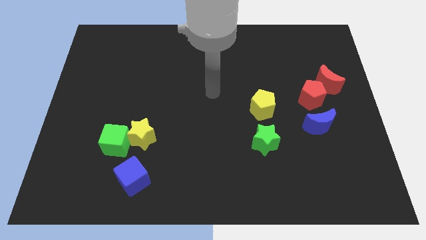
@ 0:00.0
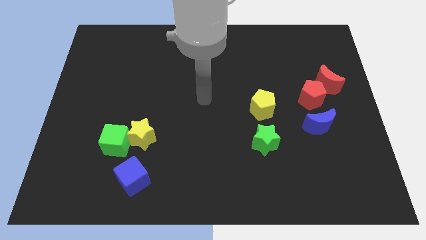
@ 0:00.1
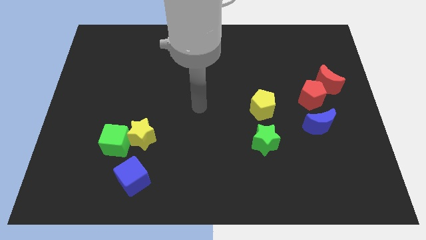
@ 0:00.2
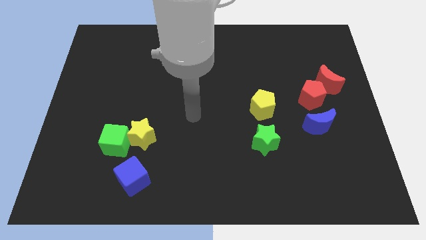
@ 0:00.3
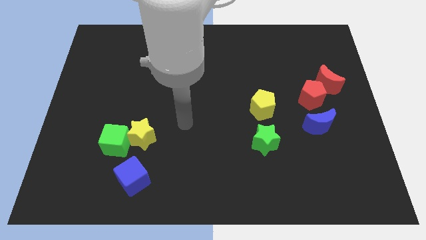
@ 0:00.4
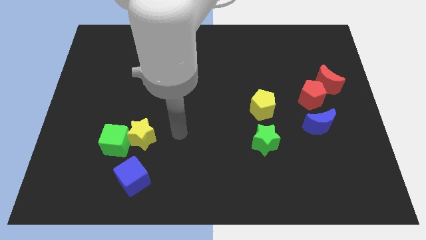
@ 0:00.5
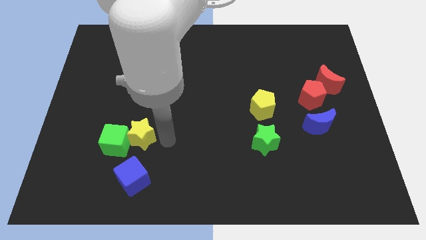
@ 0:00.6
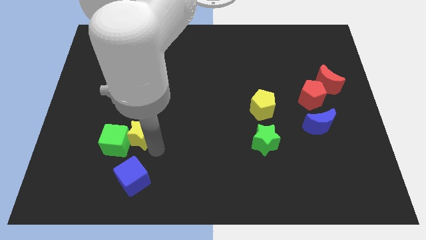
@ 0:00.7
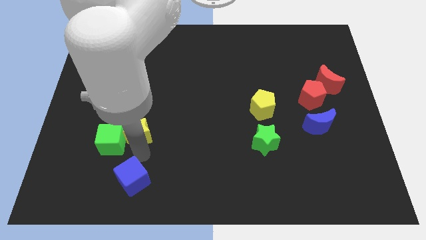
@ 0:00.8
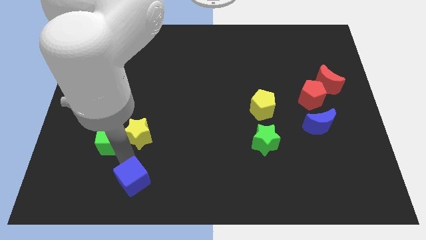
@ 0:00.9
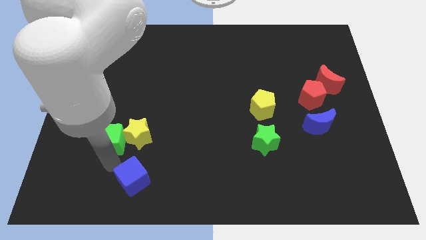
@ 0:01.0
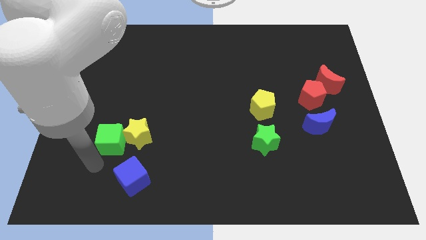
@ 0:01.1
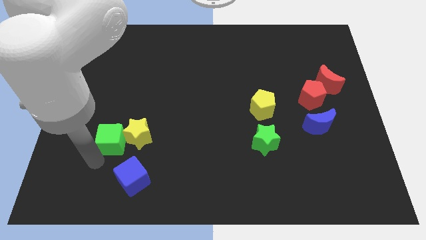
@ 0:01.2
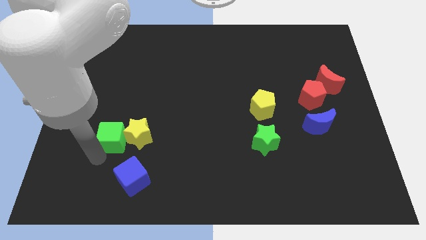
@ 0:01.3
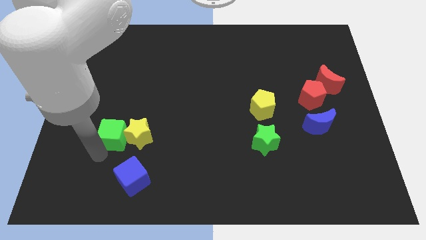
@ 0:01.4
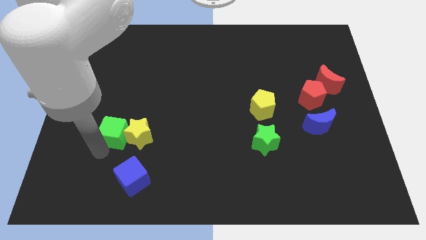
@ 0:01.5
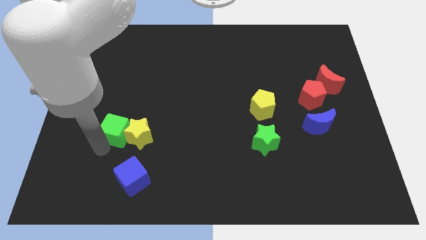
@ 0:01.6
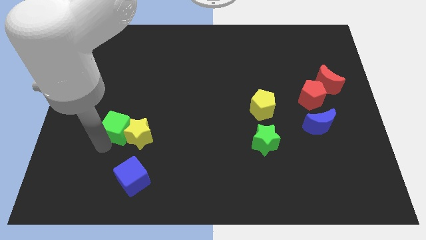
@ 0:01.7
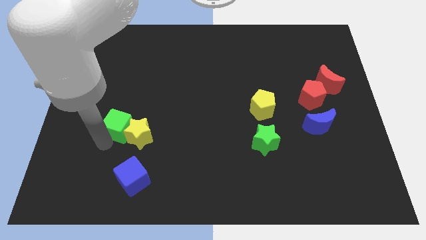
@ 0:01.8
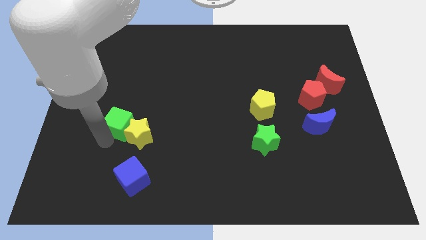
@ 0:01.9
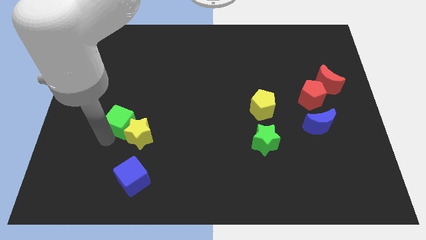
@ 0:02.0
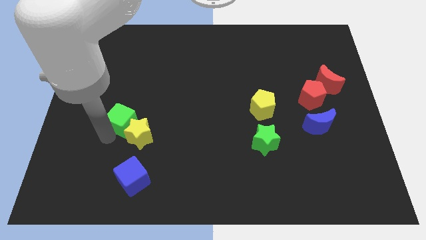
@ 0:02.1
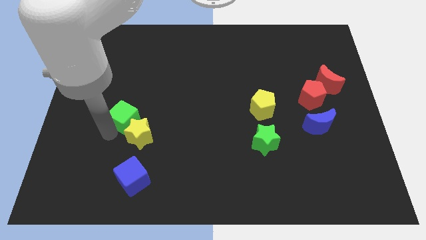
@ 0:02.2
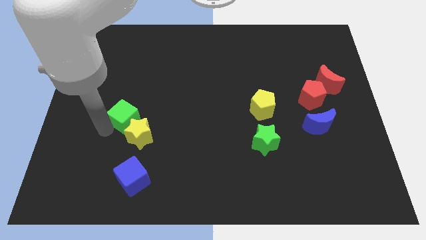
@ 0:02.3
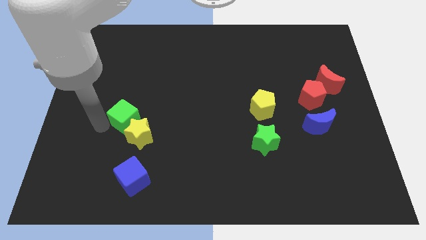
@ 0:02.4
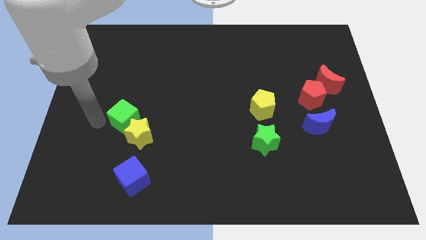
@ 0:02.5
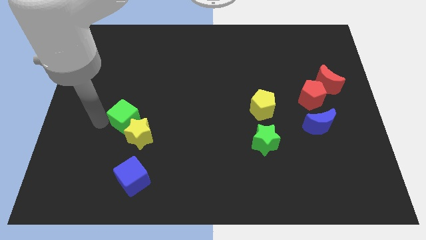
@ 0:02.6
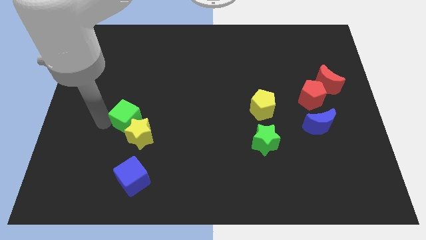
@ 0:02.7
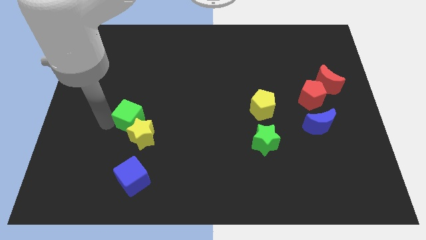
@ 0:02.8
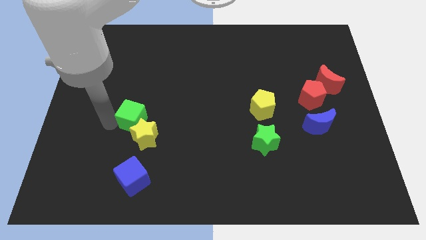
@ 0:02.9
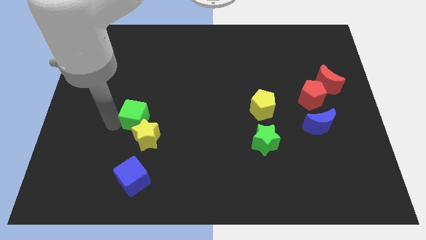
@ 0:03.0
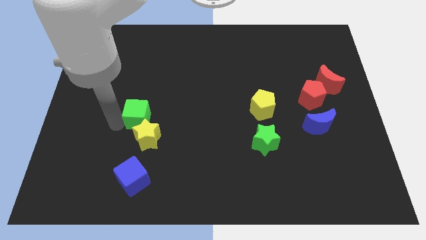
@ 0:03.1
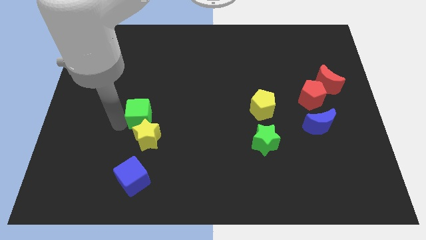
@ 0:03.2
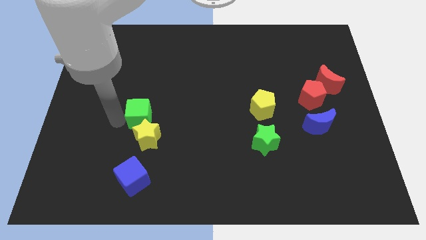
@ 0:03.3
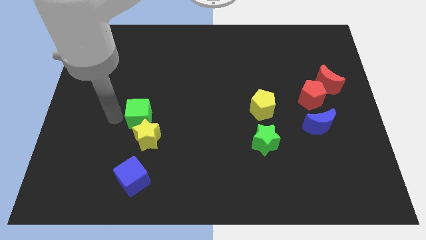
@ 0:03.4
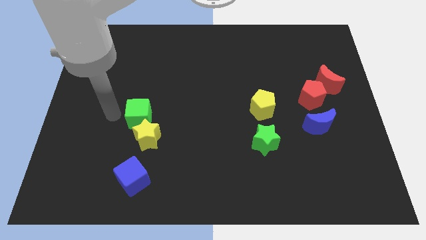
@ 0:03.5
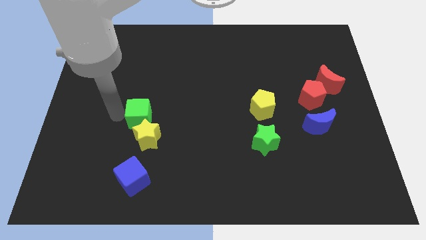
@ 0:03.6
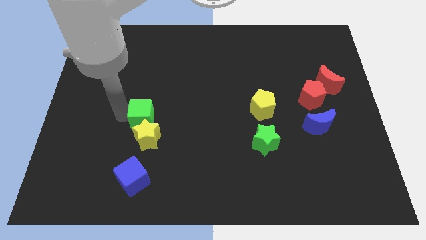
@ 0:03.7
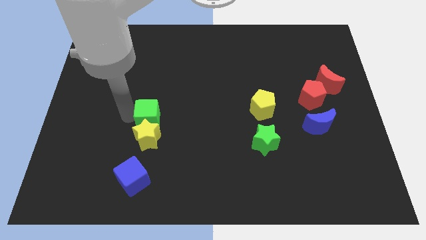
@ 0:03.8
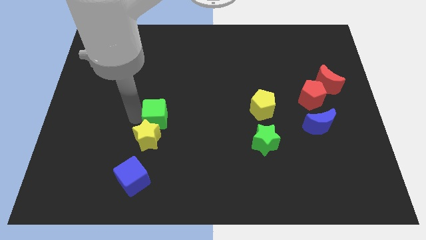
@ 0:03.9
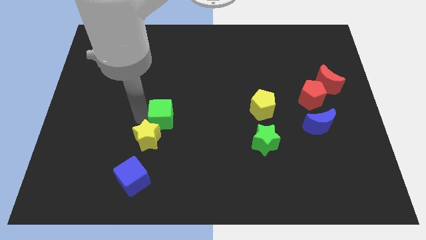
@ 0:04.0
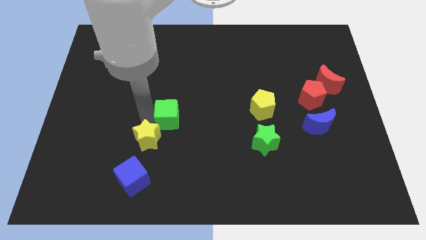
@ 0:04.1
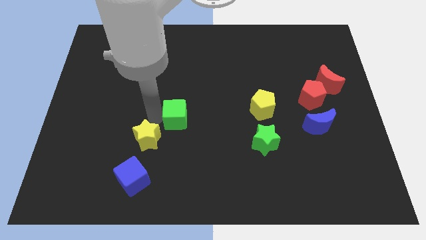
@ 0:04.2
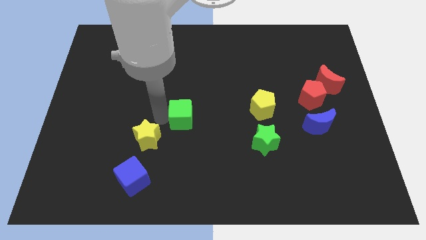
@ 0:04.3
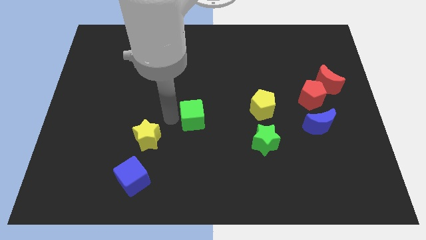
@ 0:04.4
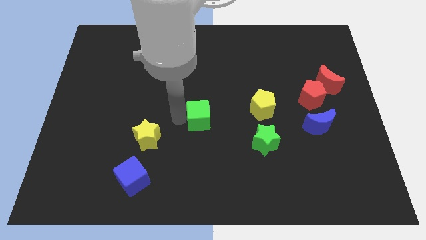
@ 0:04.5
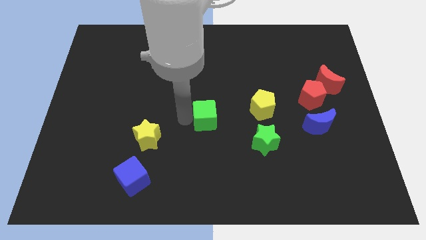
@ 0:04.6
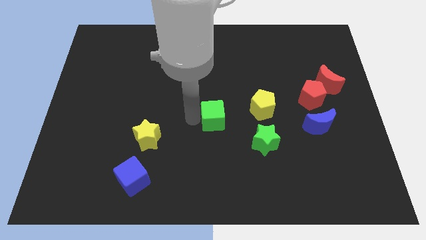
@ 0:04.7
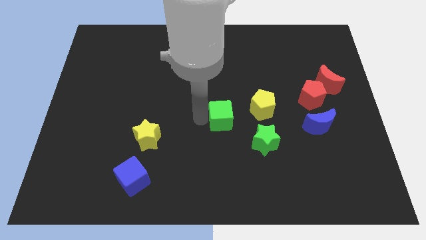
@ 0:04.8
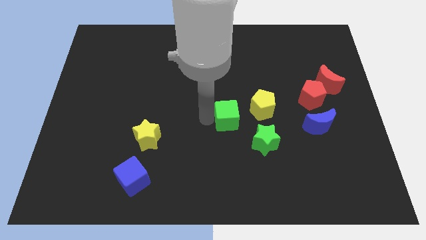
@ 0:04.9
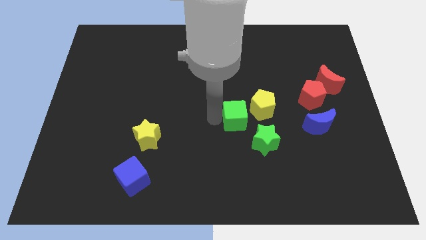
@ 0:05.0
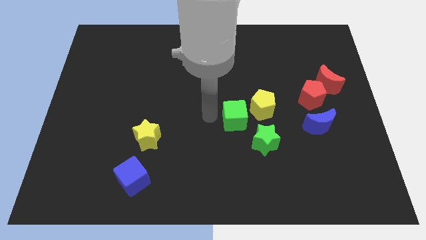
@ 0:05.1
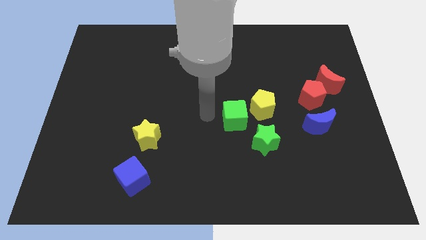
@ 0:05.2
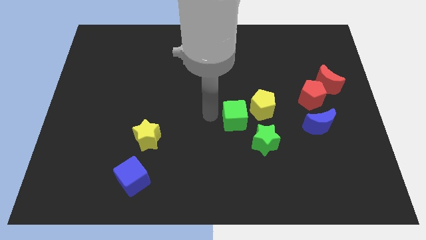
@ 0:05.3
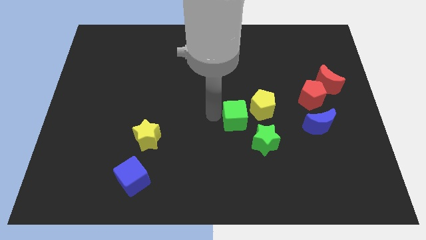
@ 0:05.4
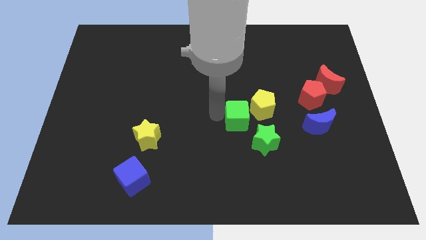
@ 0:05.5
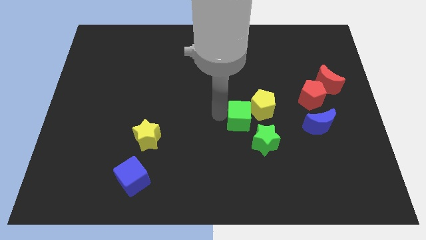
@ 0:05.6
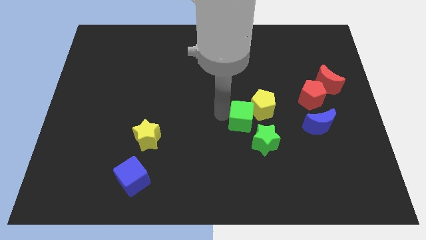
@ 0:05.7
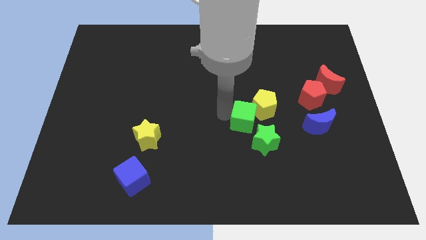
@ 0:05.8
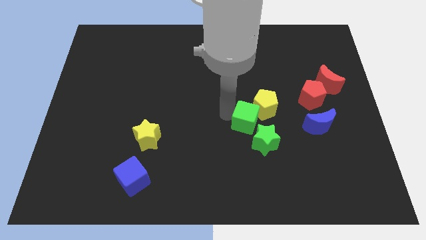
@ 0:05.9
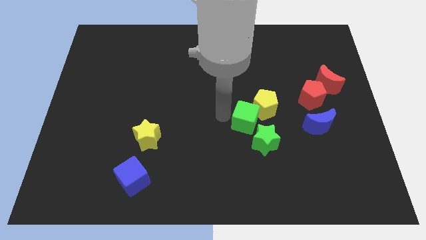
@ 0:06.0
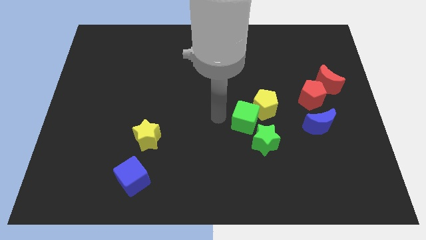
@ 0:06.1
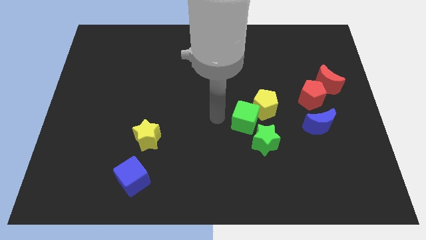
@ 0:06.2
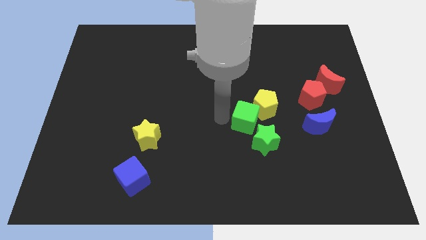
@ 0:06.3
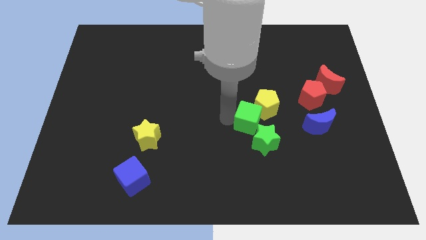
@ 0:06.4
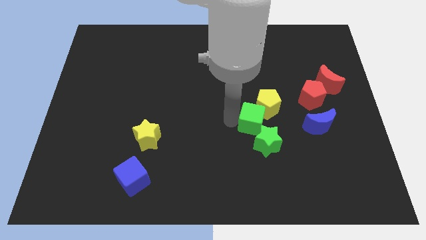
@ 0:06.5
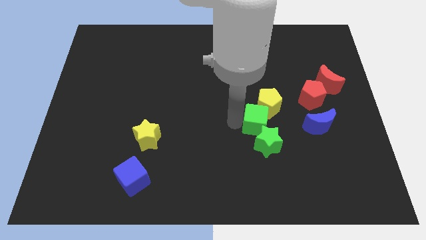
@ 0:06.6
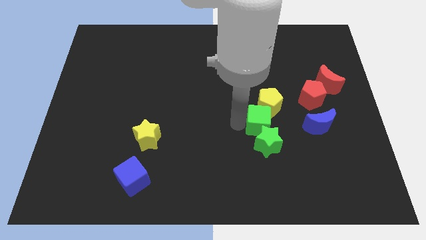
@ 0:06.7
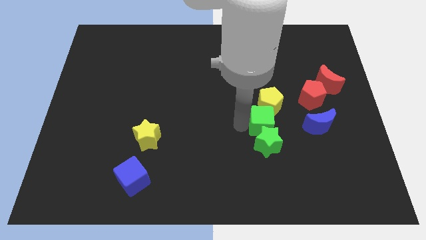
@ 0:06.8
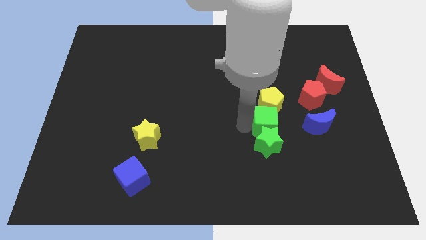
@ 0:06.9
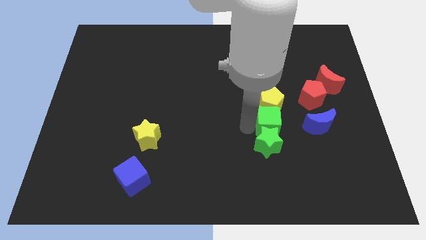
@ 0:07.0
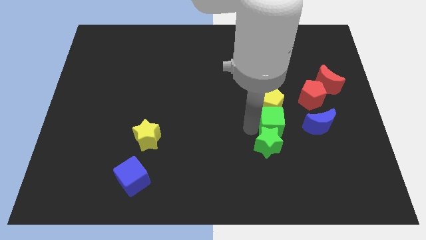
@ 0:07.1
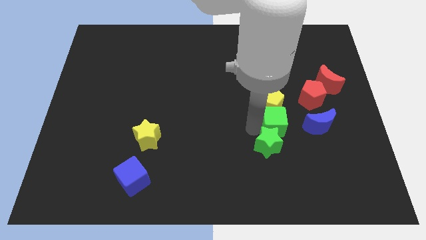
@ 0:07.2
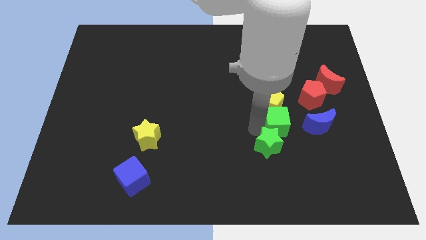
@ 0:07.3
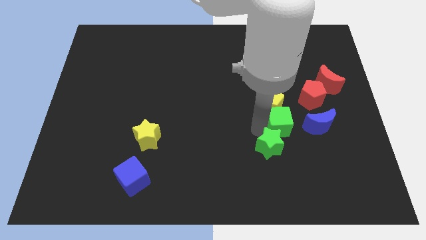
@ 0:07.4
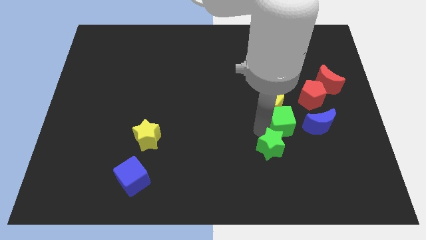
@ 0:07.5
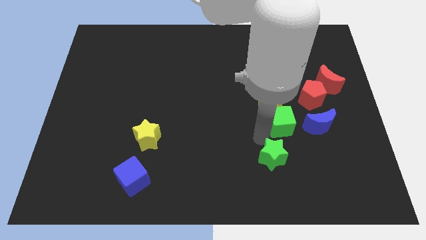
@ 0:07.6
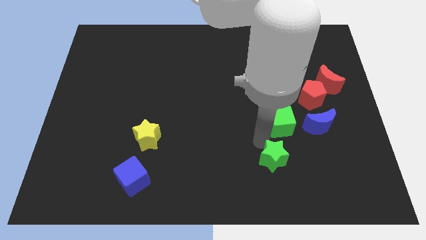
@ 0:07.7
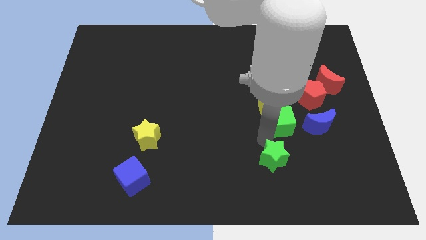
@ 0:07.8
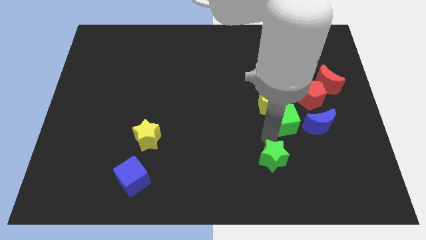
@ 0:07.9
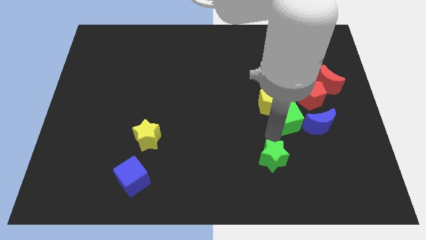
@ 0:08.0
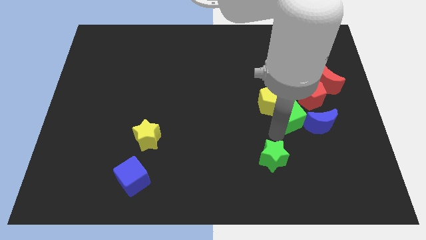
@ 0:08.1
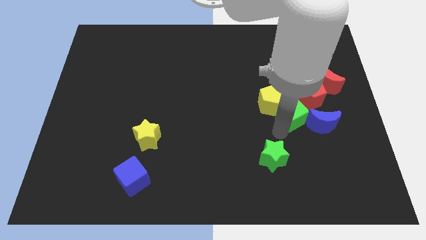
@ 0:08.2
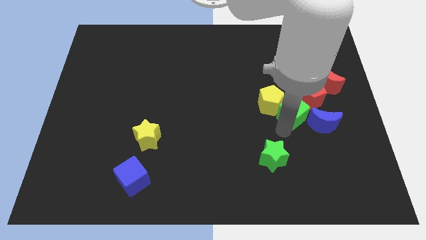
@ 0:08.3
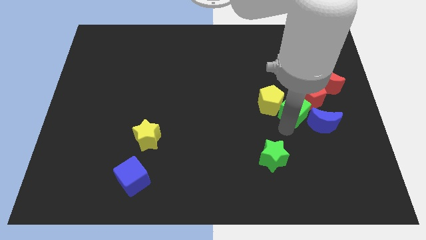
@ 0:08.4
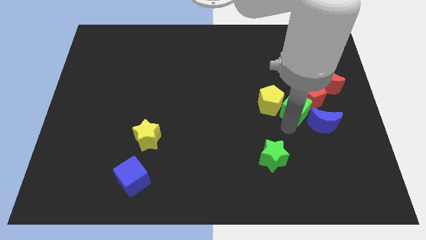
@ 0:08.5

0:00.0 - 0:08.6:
move the green cube to the red pentagon
